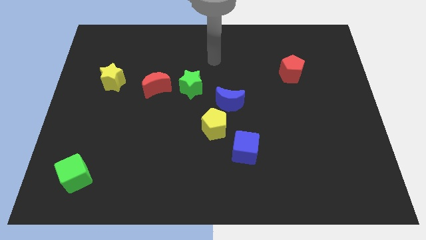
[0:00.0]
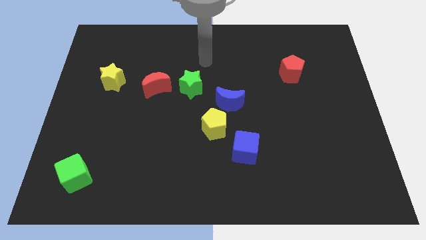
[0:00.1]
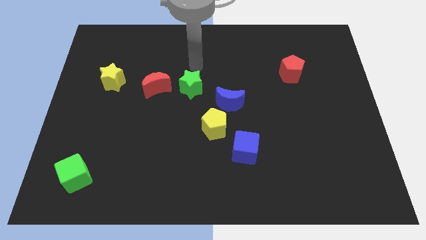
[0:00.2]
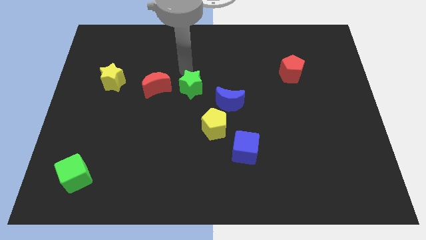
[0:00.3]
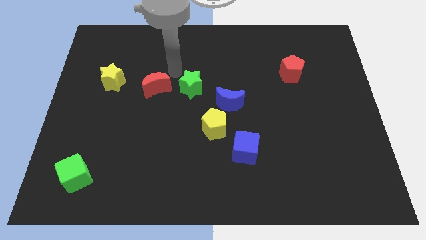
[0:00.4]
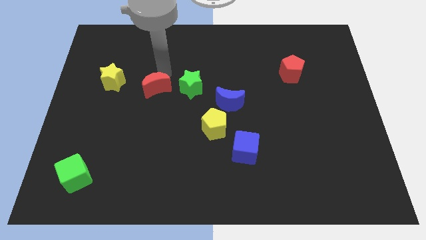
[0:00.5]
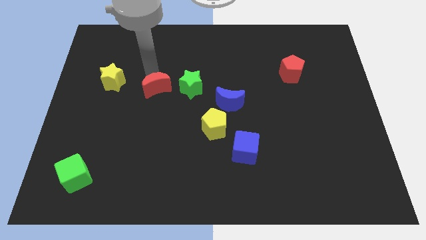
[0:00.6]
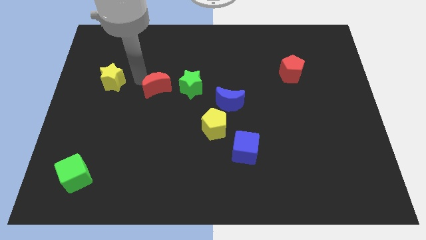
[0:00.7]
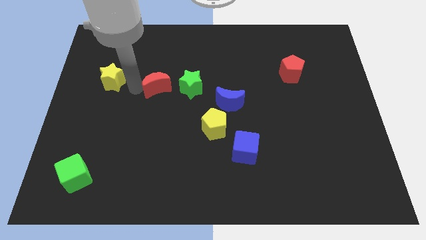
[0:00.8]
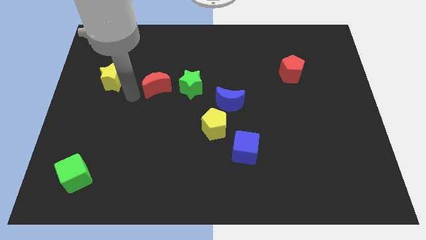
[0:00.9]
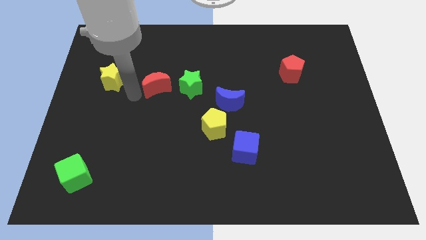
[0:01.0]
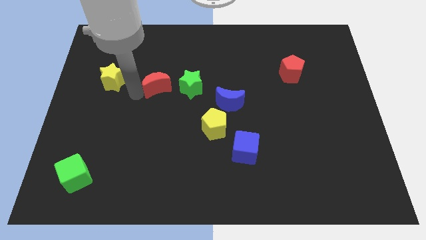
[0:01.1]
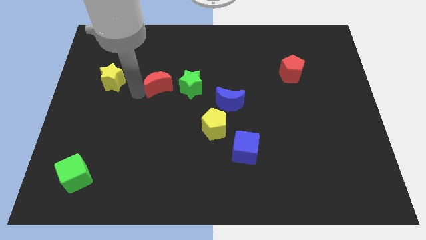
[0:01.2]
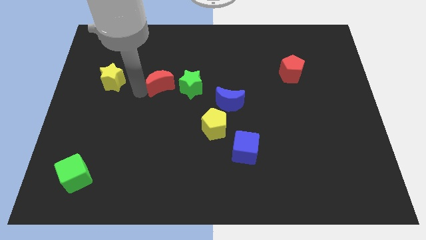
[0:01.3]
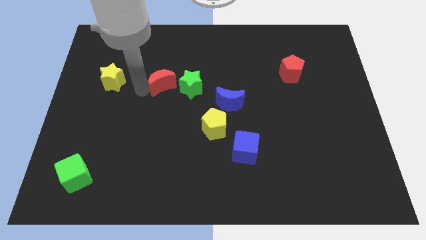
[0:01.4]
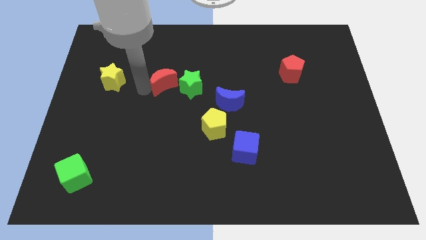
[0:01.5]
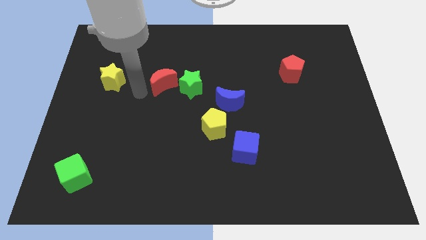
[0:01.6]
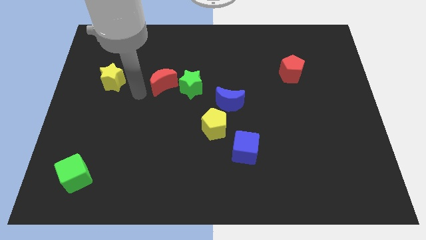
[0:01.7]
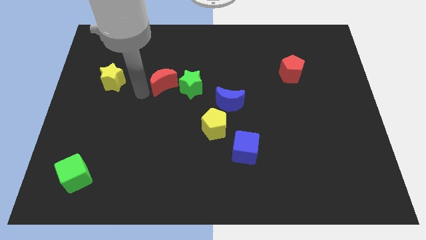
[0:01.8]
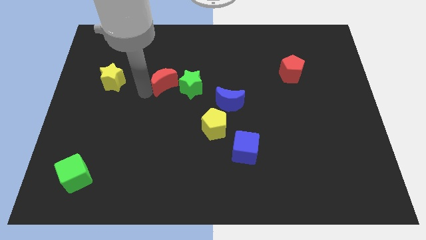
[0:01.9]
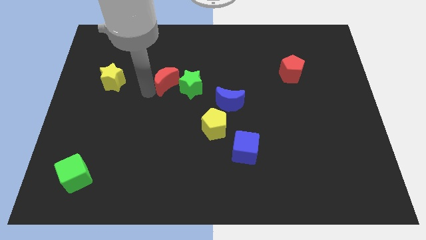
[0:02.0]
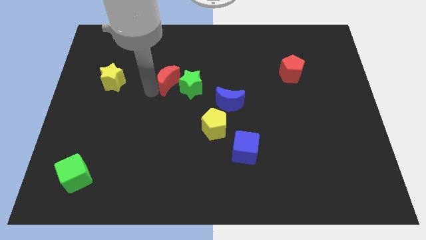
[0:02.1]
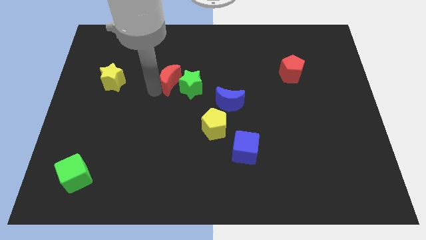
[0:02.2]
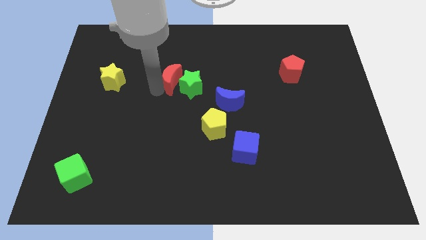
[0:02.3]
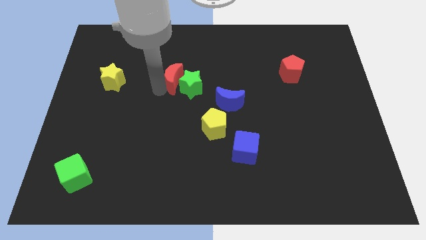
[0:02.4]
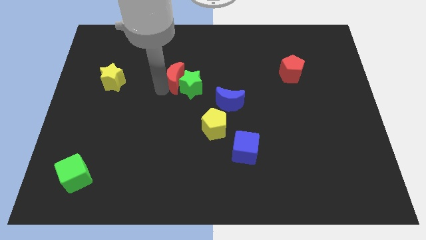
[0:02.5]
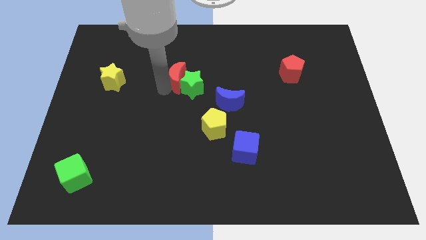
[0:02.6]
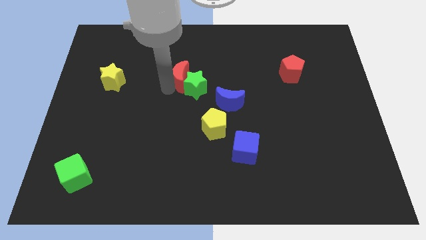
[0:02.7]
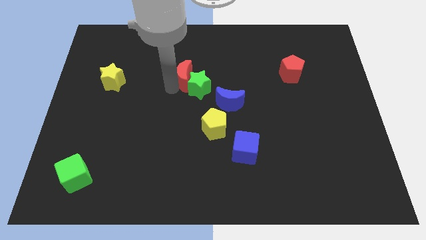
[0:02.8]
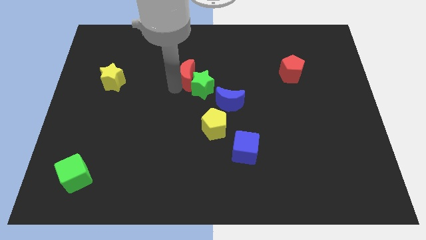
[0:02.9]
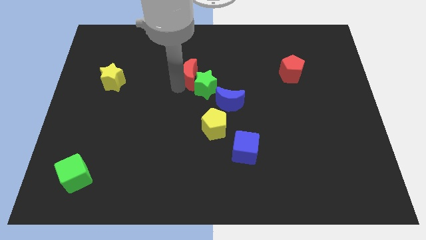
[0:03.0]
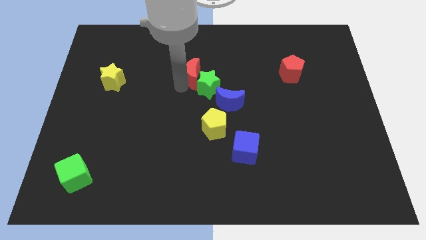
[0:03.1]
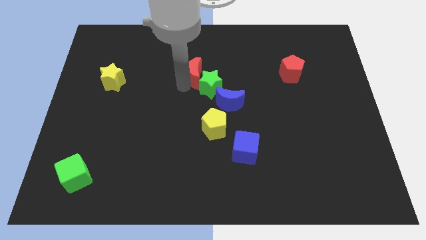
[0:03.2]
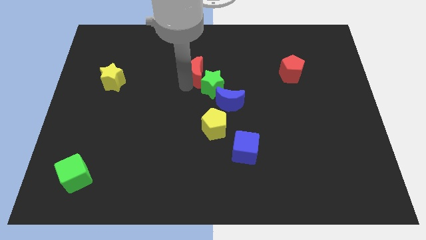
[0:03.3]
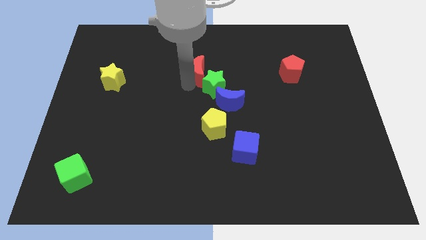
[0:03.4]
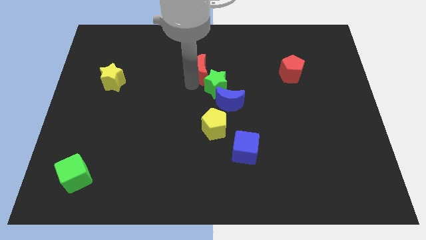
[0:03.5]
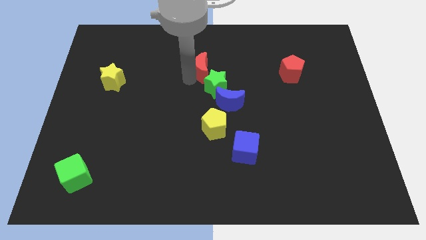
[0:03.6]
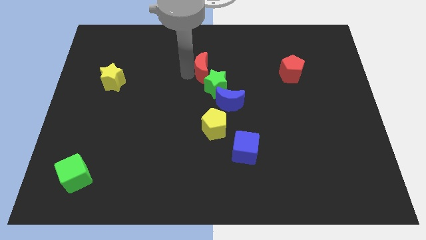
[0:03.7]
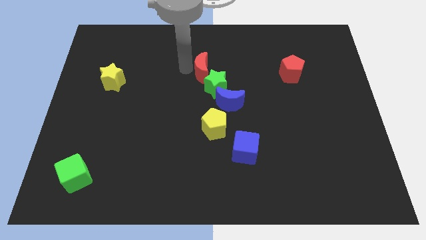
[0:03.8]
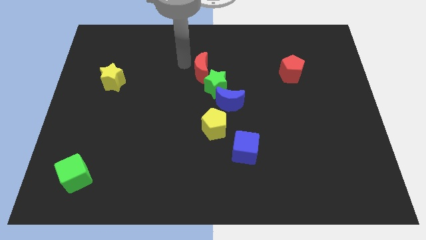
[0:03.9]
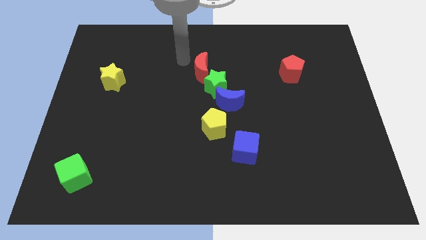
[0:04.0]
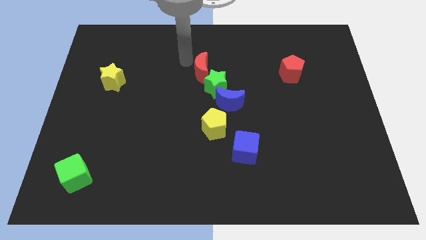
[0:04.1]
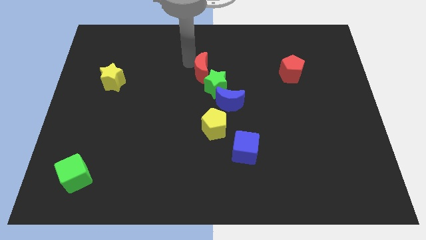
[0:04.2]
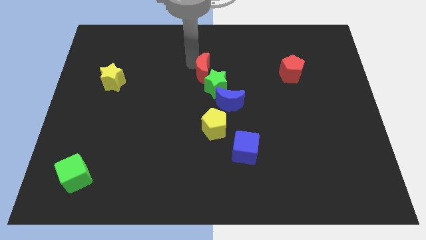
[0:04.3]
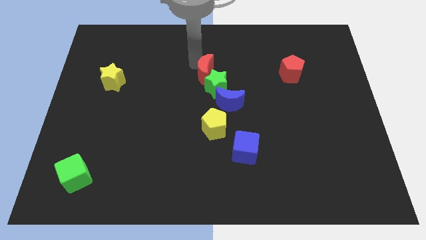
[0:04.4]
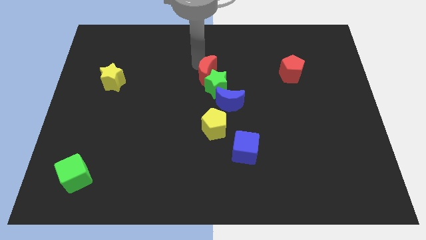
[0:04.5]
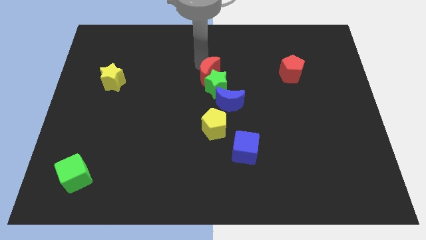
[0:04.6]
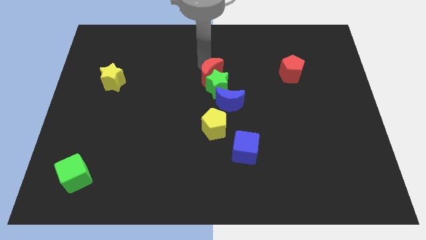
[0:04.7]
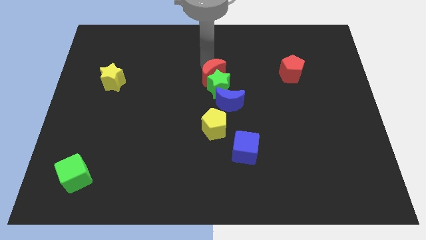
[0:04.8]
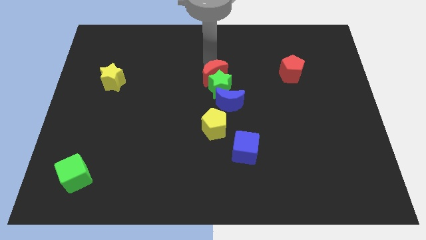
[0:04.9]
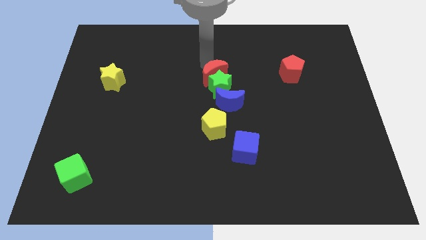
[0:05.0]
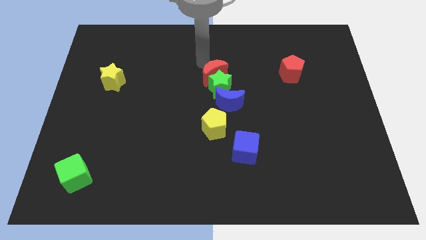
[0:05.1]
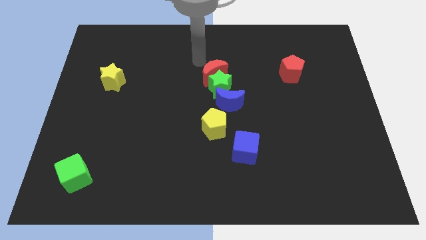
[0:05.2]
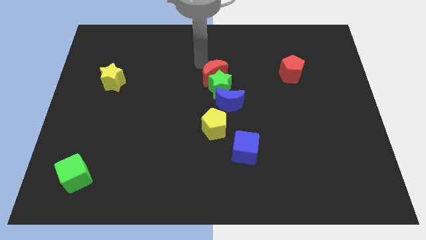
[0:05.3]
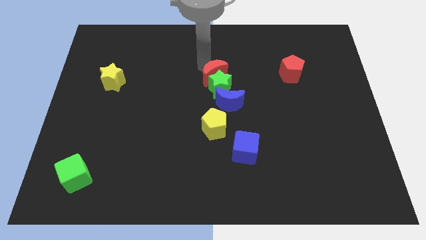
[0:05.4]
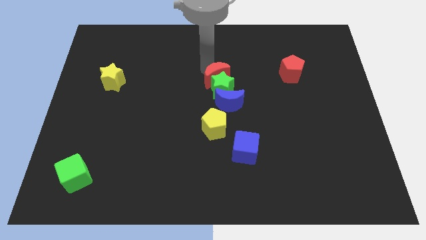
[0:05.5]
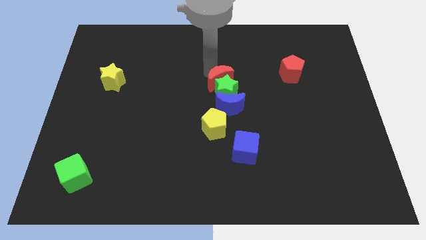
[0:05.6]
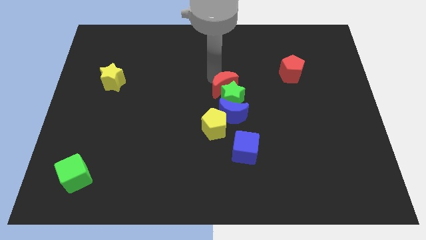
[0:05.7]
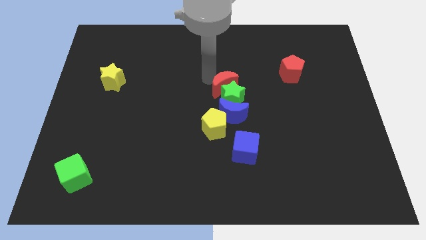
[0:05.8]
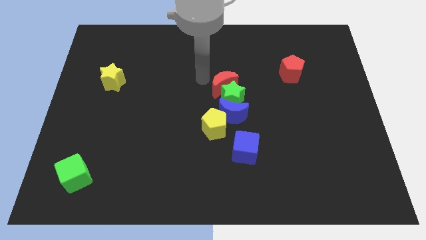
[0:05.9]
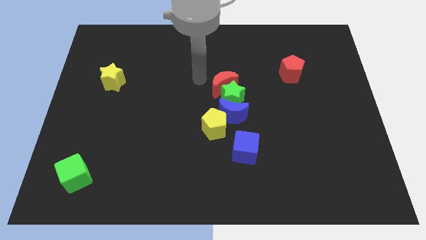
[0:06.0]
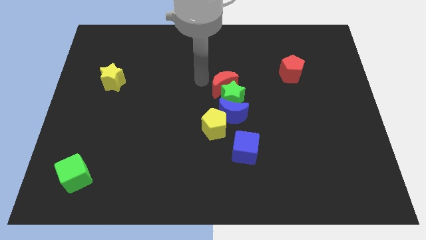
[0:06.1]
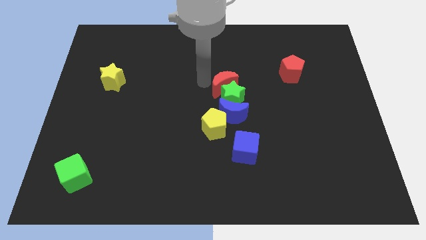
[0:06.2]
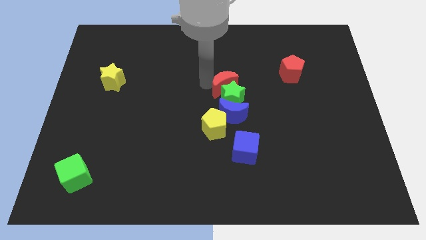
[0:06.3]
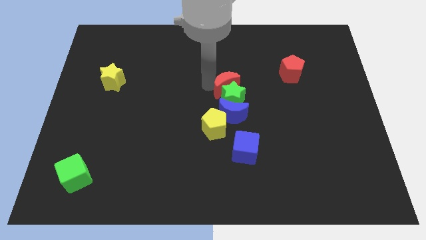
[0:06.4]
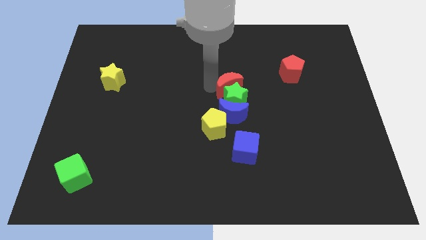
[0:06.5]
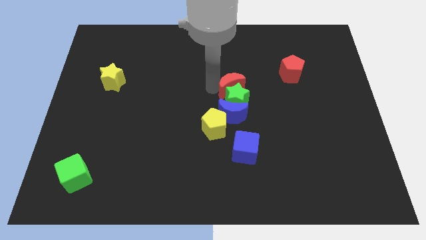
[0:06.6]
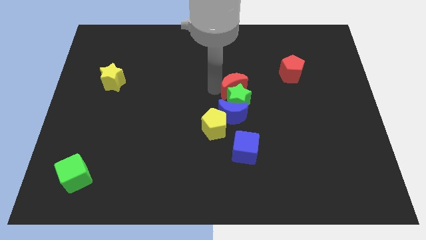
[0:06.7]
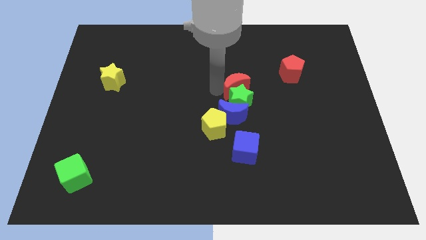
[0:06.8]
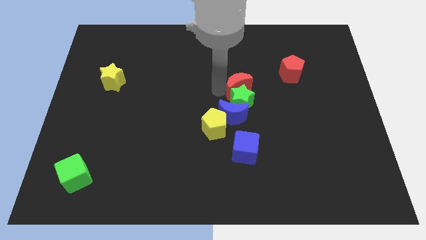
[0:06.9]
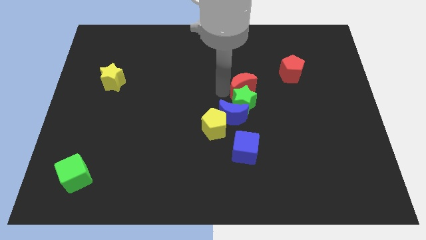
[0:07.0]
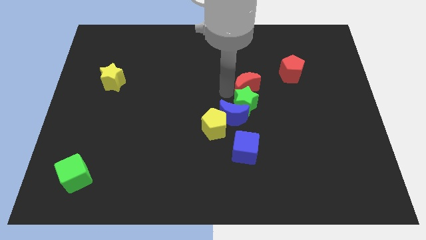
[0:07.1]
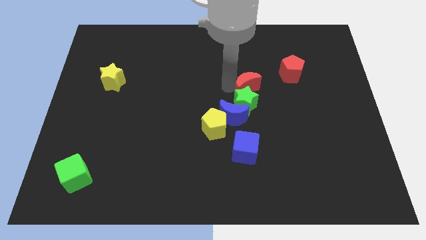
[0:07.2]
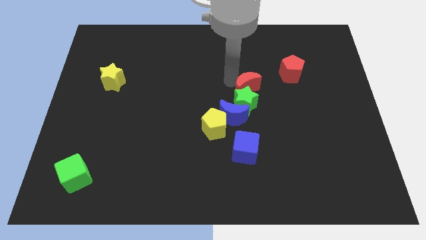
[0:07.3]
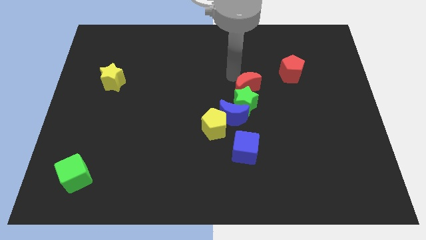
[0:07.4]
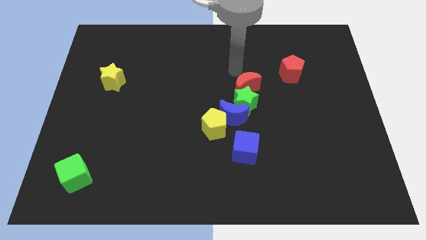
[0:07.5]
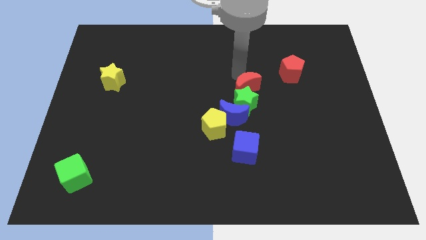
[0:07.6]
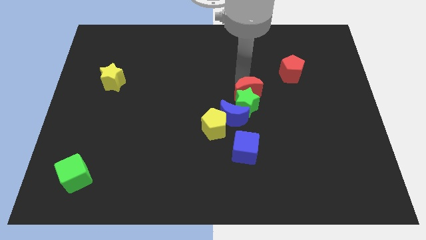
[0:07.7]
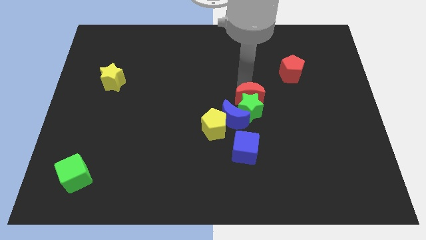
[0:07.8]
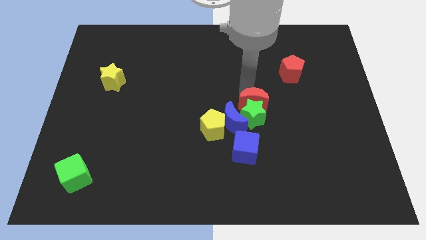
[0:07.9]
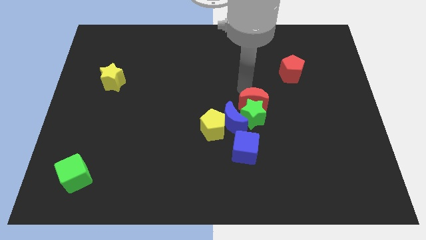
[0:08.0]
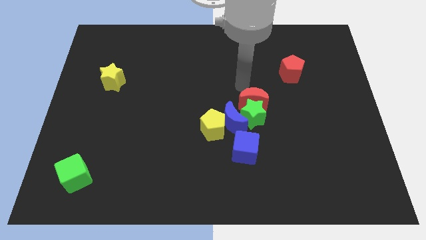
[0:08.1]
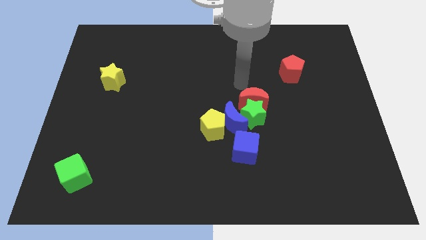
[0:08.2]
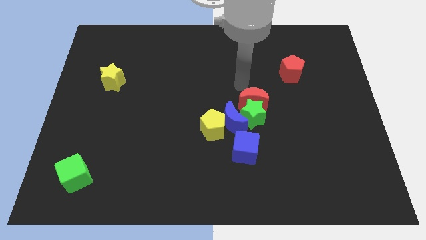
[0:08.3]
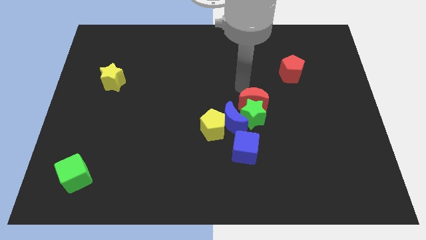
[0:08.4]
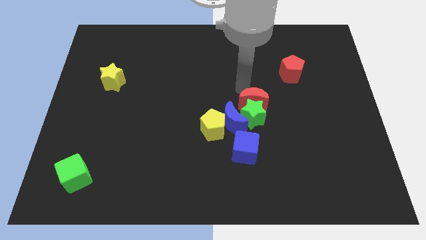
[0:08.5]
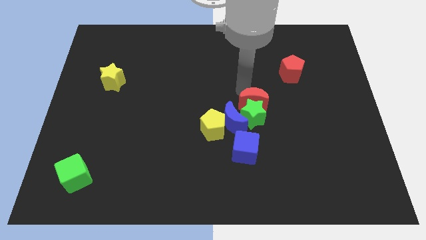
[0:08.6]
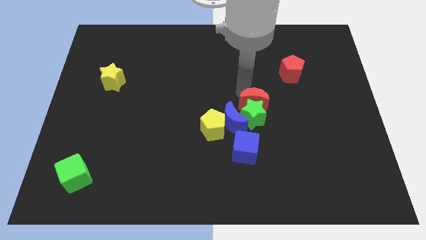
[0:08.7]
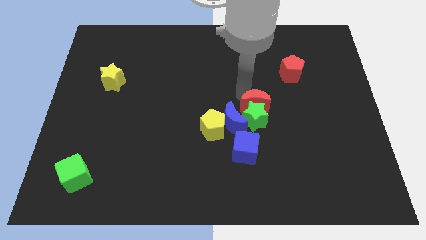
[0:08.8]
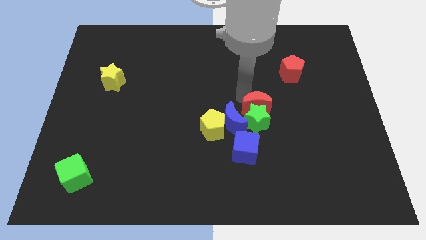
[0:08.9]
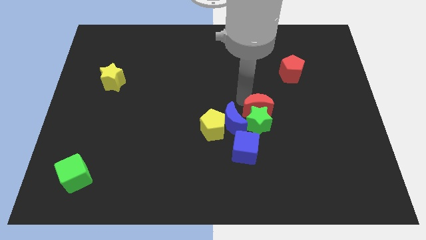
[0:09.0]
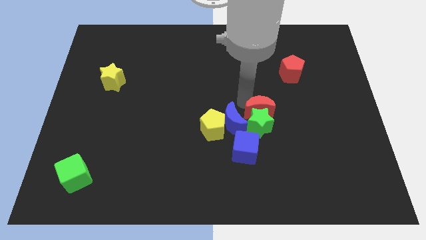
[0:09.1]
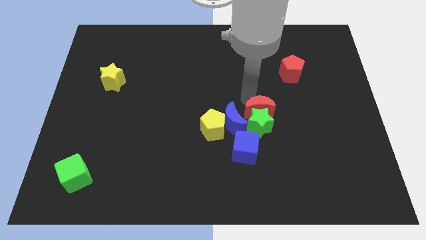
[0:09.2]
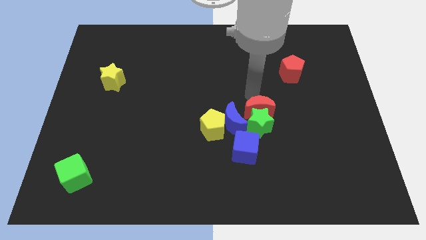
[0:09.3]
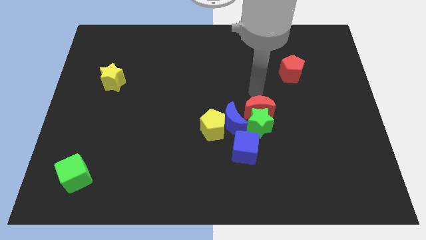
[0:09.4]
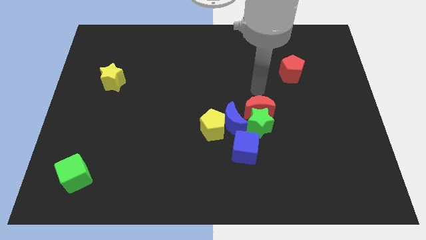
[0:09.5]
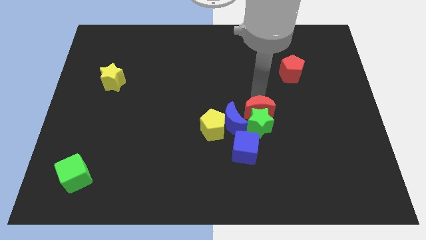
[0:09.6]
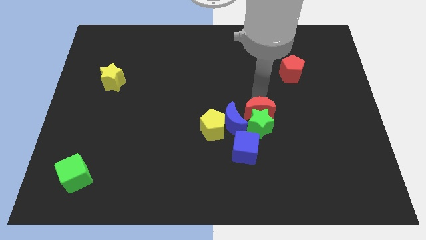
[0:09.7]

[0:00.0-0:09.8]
slide the red moon right of the yellow pentagon
